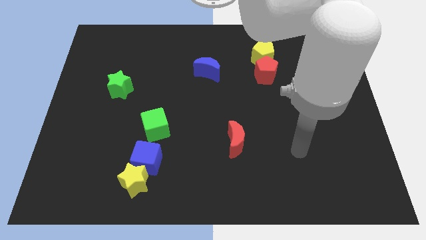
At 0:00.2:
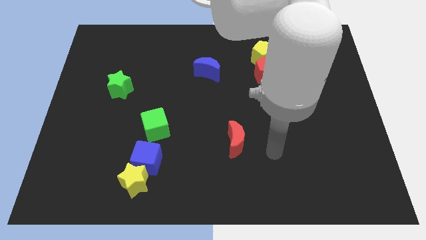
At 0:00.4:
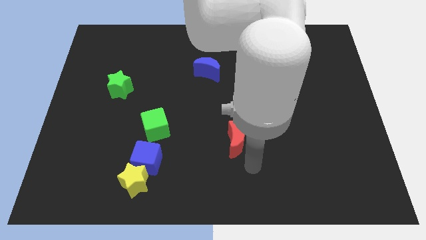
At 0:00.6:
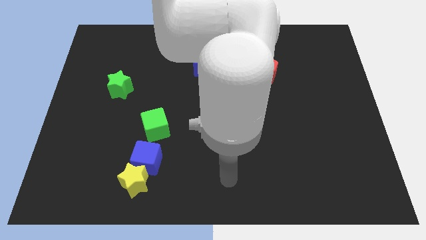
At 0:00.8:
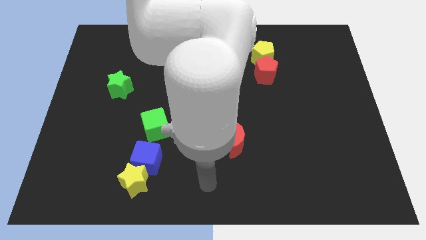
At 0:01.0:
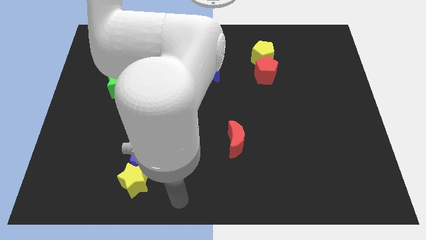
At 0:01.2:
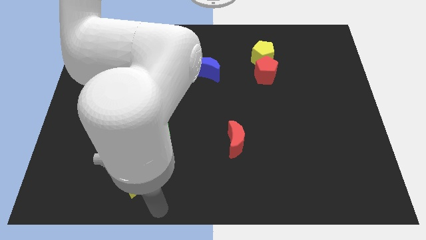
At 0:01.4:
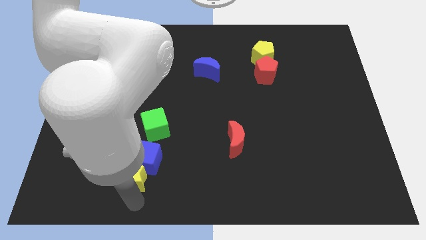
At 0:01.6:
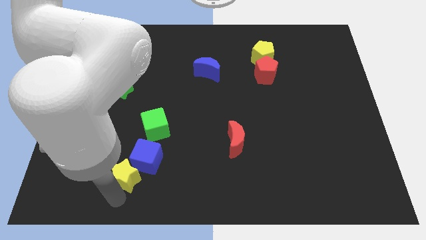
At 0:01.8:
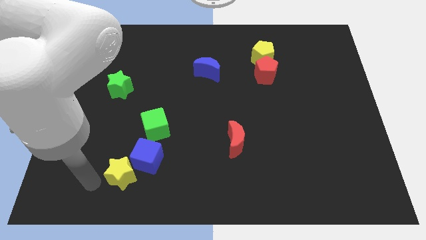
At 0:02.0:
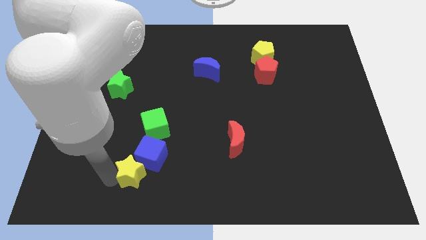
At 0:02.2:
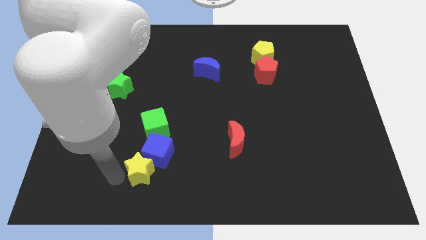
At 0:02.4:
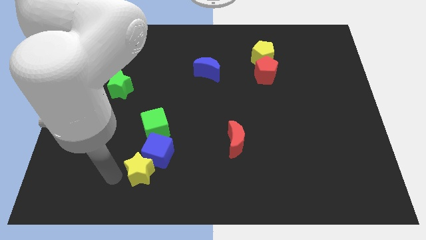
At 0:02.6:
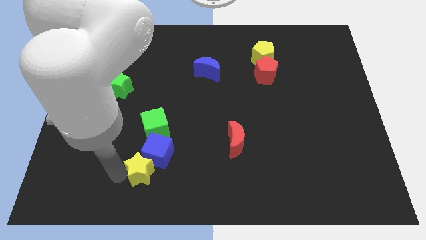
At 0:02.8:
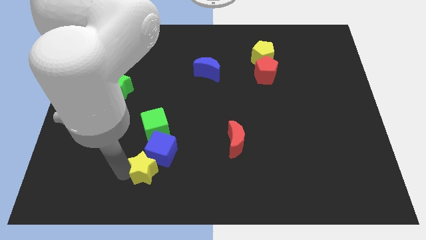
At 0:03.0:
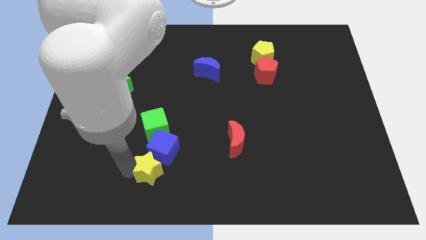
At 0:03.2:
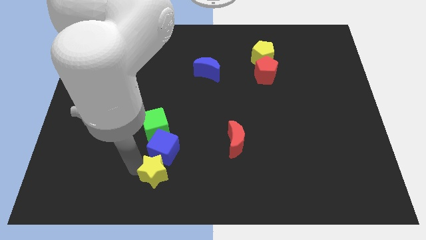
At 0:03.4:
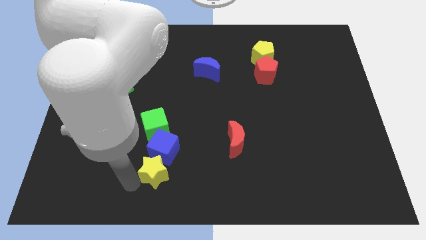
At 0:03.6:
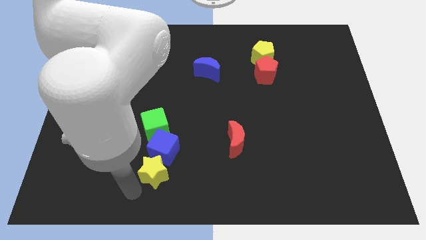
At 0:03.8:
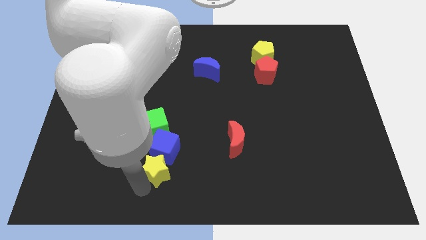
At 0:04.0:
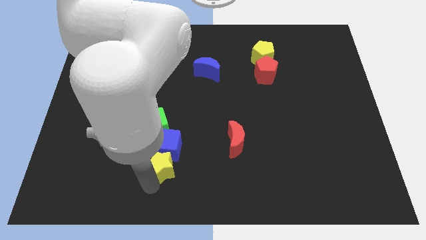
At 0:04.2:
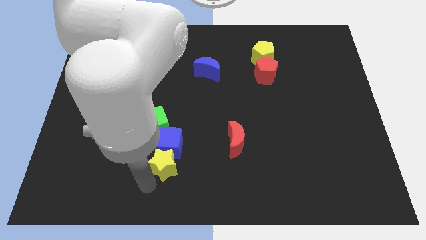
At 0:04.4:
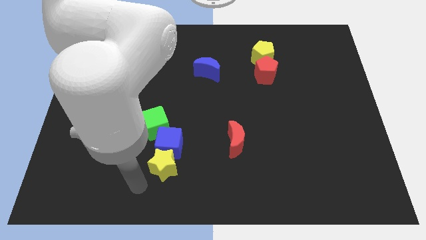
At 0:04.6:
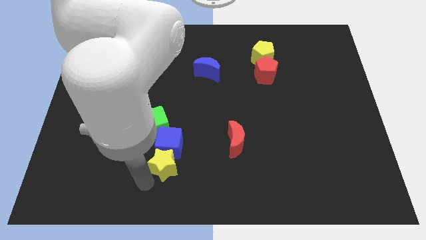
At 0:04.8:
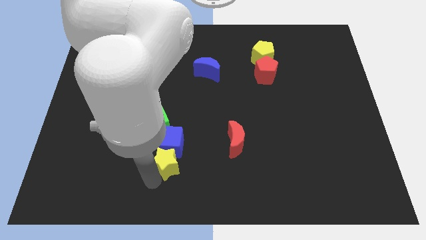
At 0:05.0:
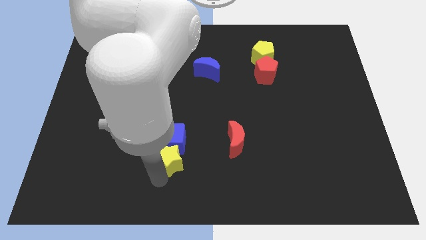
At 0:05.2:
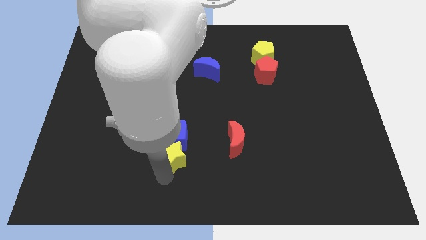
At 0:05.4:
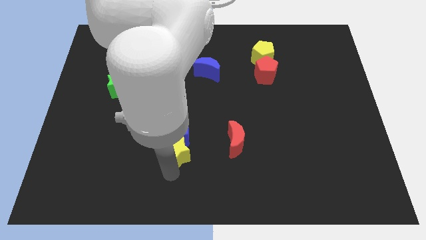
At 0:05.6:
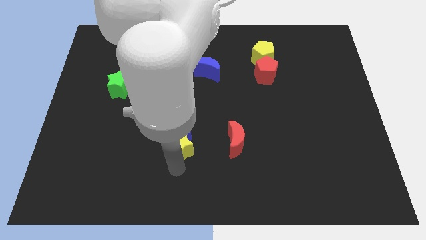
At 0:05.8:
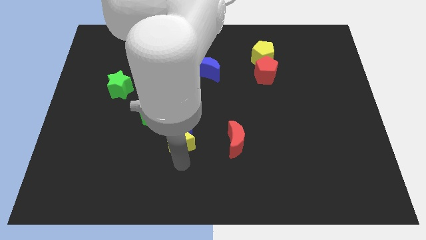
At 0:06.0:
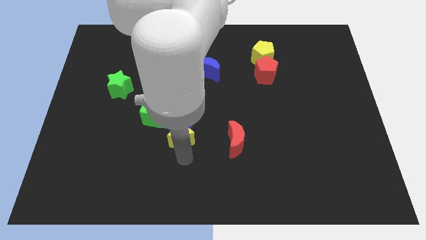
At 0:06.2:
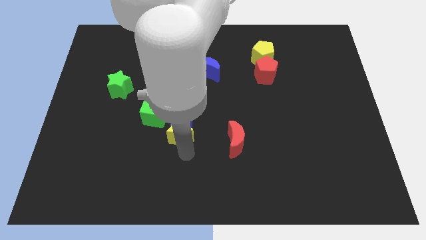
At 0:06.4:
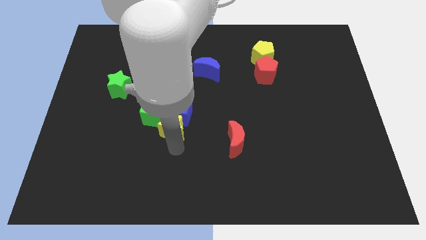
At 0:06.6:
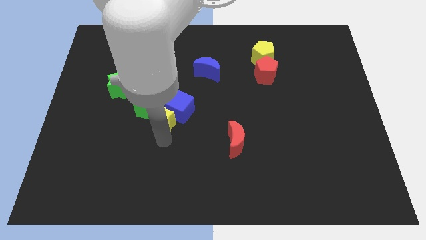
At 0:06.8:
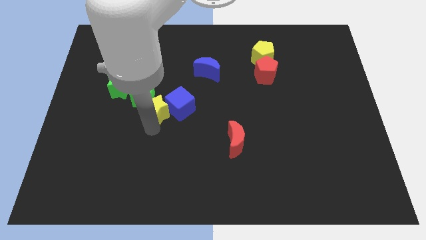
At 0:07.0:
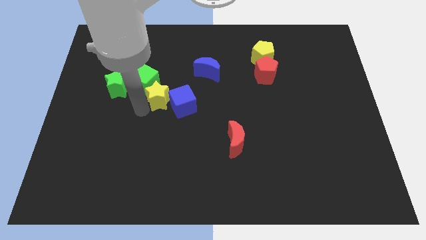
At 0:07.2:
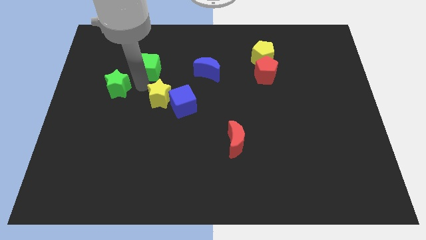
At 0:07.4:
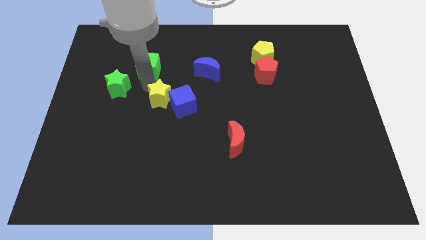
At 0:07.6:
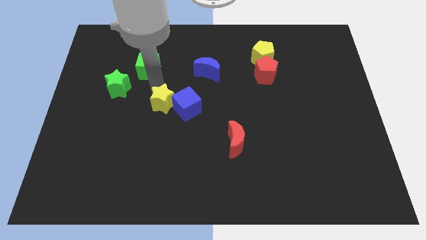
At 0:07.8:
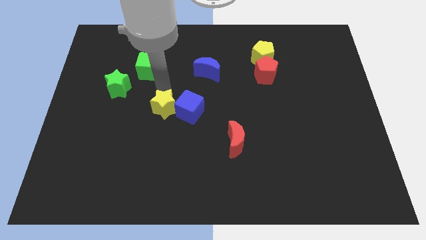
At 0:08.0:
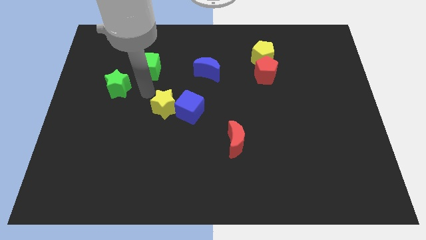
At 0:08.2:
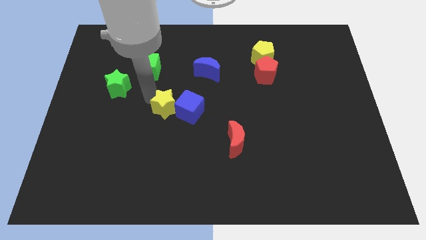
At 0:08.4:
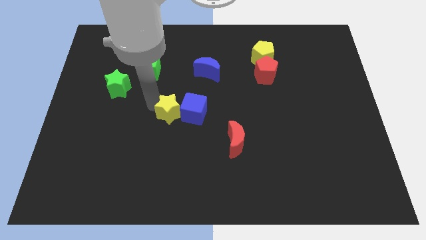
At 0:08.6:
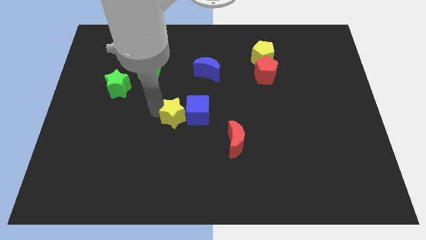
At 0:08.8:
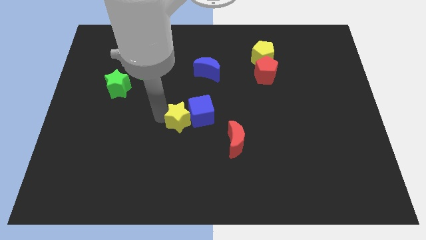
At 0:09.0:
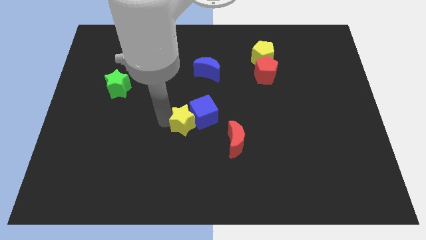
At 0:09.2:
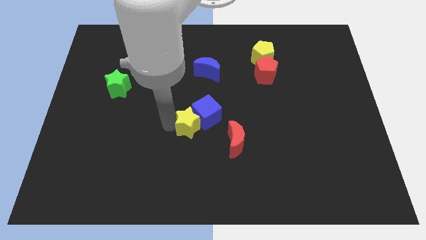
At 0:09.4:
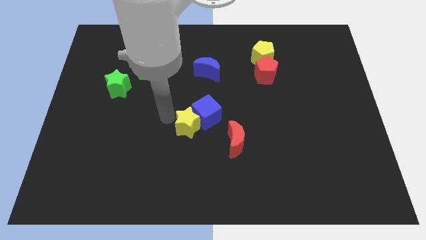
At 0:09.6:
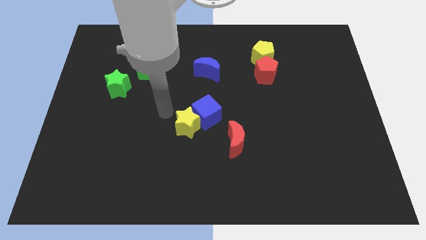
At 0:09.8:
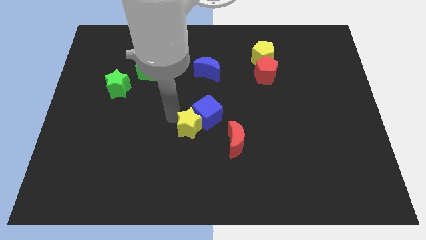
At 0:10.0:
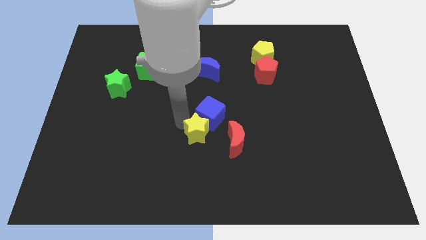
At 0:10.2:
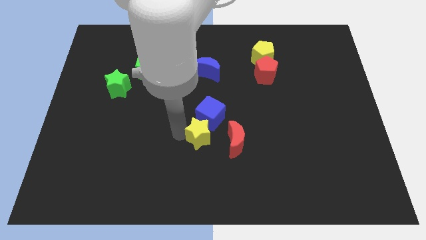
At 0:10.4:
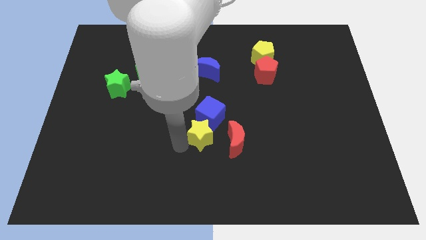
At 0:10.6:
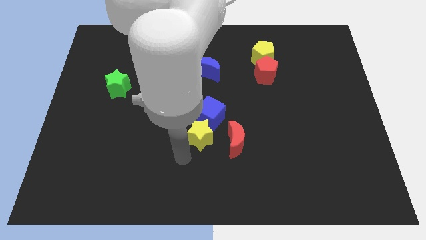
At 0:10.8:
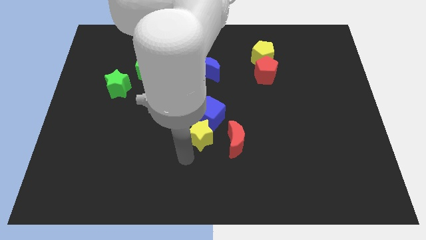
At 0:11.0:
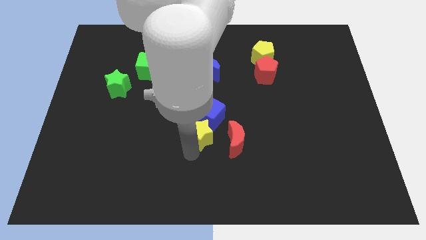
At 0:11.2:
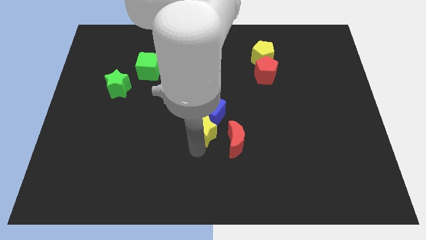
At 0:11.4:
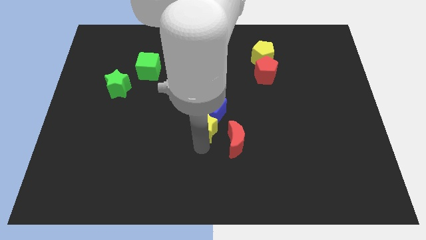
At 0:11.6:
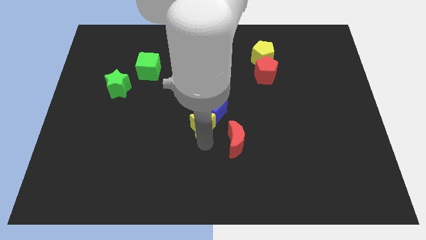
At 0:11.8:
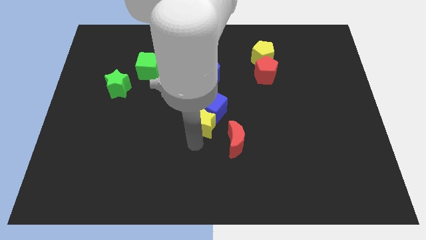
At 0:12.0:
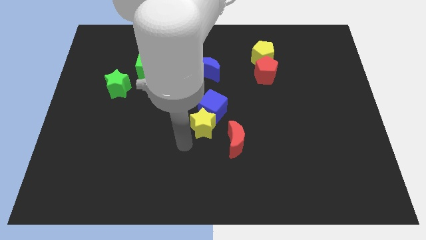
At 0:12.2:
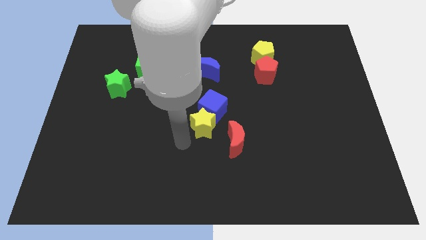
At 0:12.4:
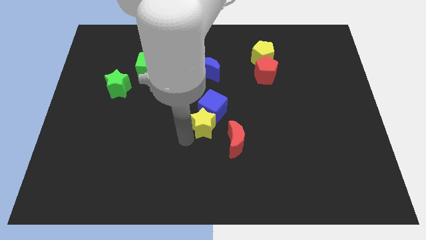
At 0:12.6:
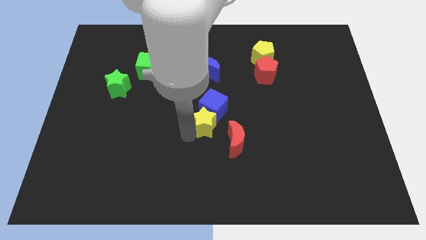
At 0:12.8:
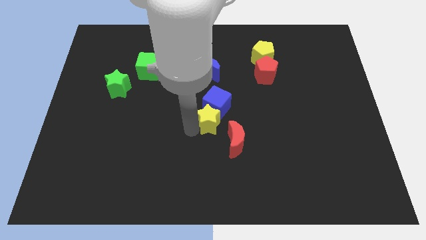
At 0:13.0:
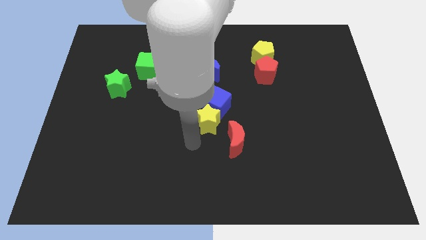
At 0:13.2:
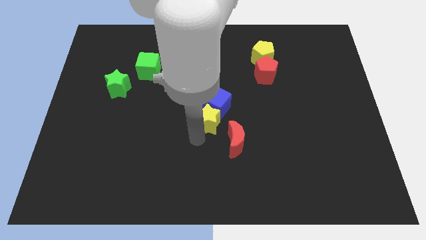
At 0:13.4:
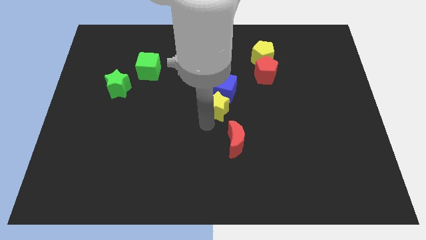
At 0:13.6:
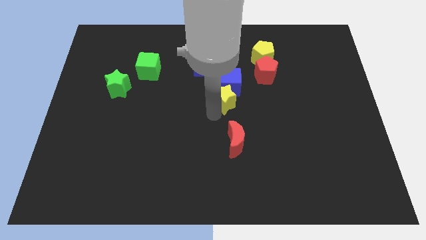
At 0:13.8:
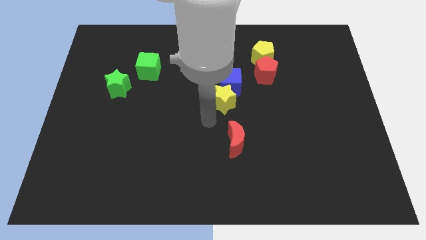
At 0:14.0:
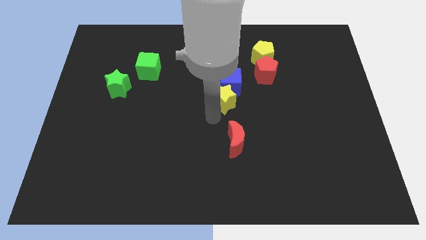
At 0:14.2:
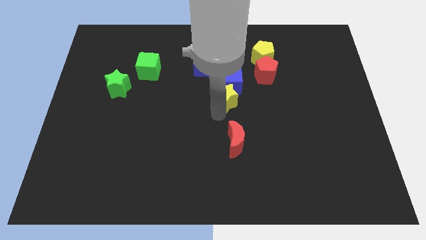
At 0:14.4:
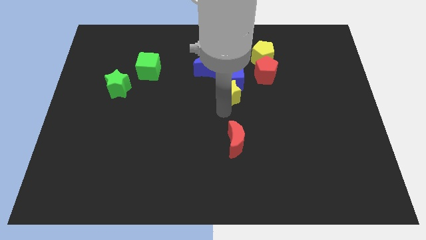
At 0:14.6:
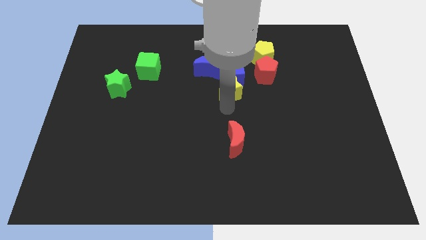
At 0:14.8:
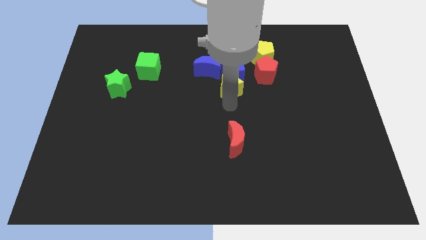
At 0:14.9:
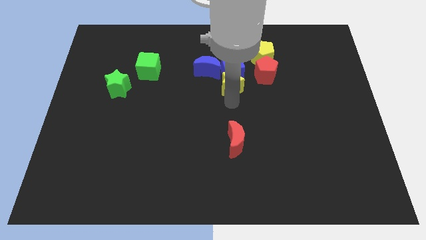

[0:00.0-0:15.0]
move the yellow star left of the red pentagon
